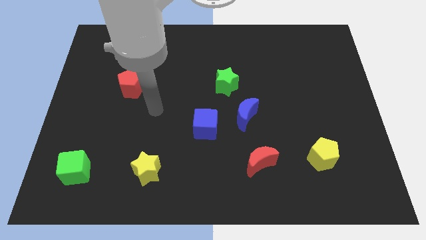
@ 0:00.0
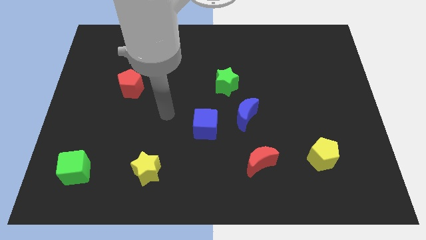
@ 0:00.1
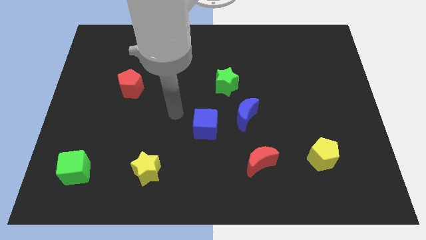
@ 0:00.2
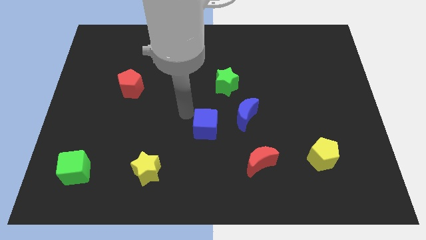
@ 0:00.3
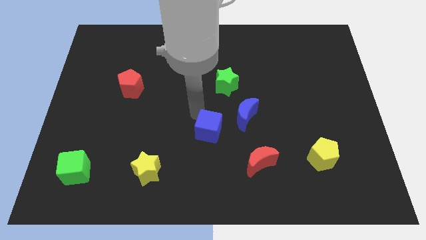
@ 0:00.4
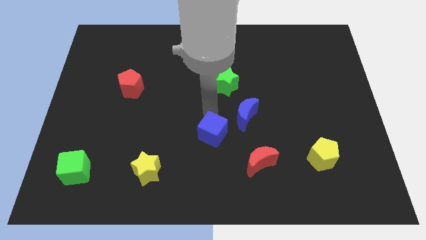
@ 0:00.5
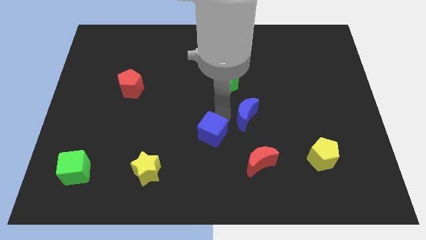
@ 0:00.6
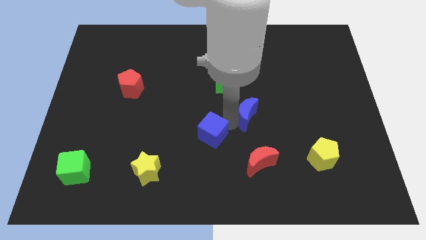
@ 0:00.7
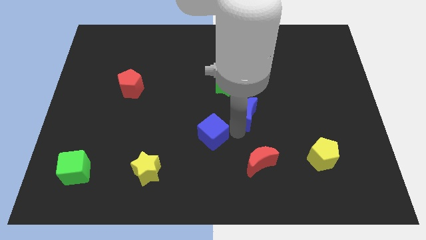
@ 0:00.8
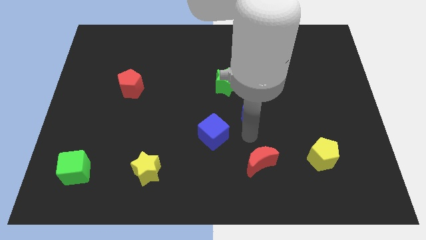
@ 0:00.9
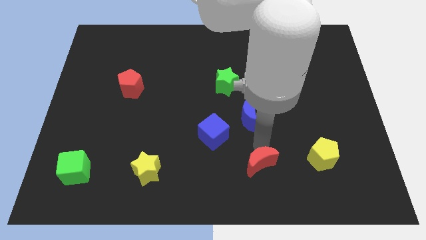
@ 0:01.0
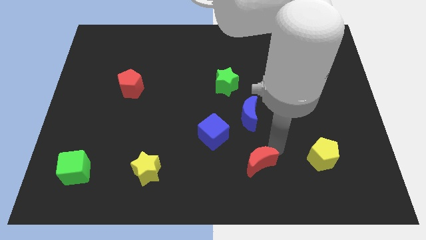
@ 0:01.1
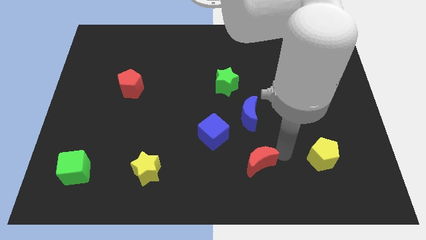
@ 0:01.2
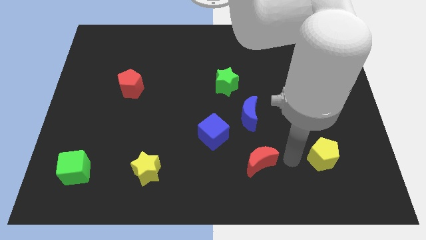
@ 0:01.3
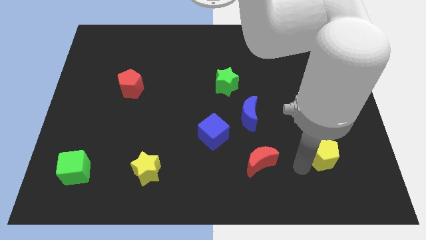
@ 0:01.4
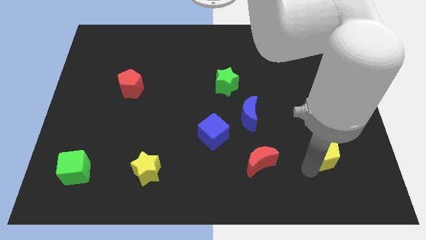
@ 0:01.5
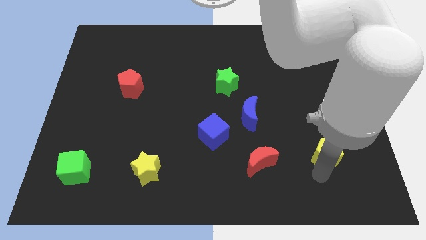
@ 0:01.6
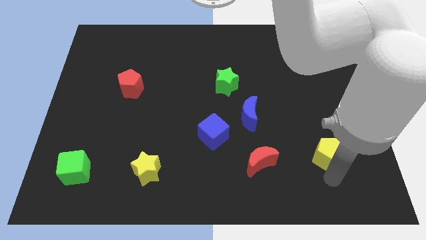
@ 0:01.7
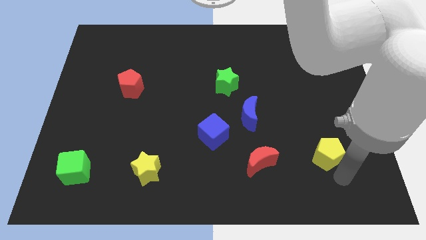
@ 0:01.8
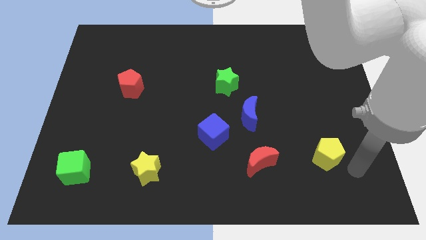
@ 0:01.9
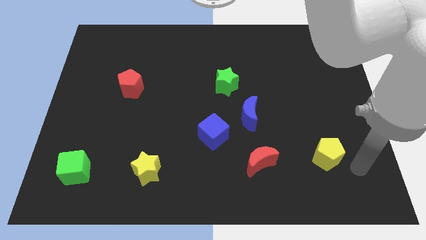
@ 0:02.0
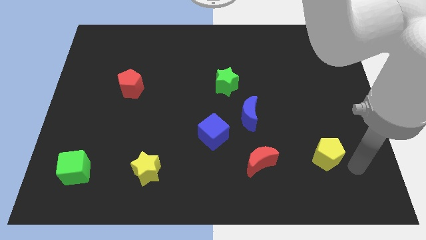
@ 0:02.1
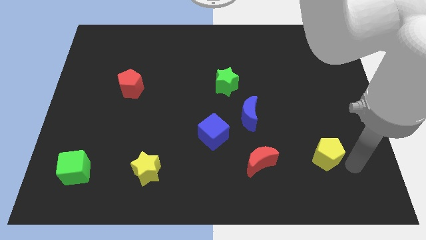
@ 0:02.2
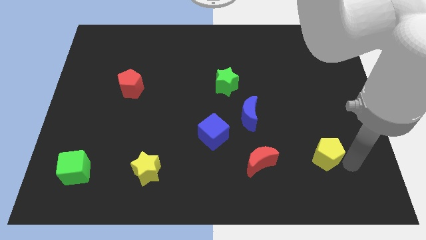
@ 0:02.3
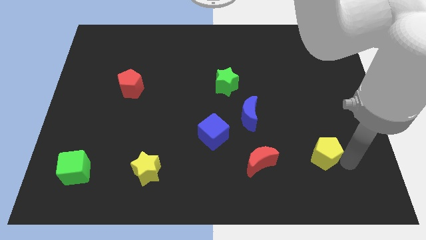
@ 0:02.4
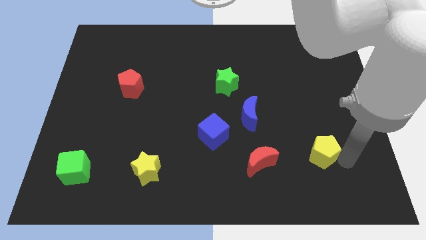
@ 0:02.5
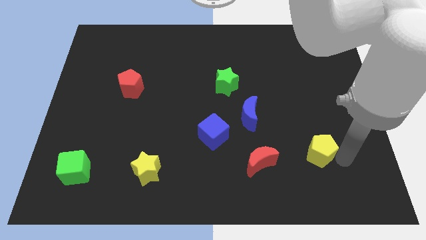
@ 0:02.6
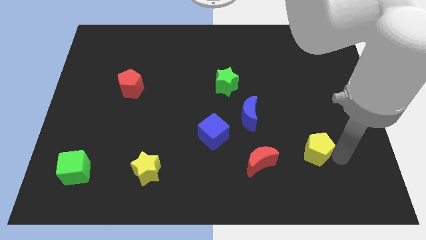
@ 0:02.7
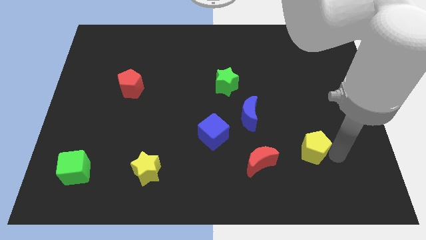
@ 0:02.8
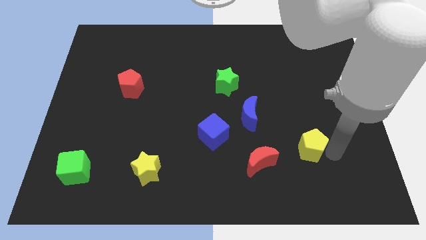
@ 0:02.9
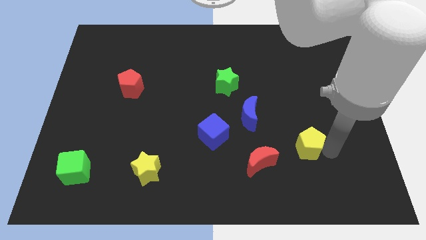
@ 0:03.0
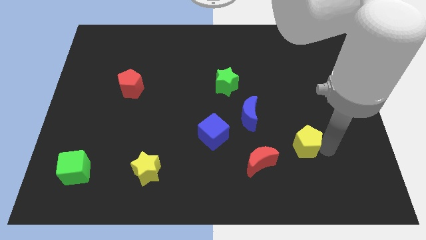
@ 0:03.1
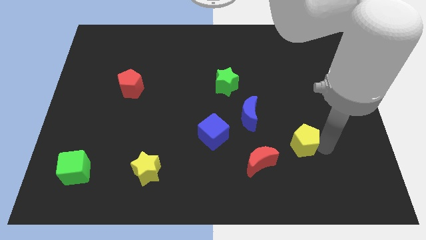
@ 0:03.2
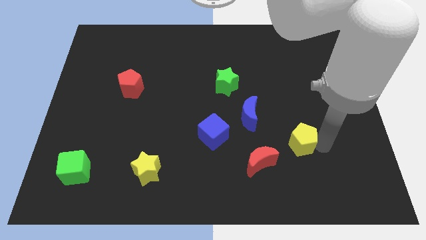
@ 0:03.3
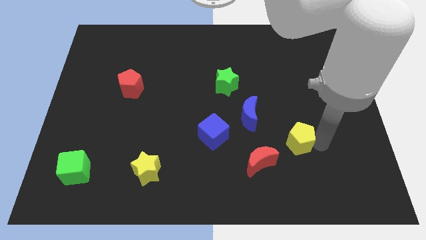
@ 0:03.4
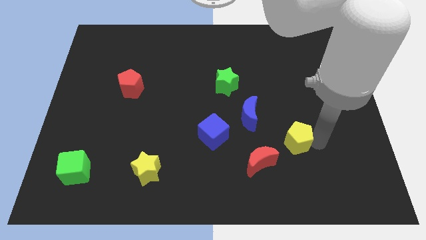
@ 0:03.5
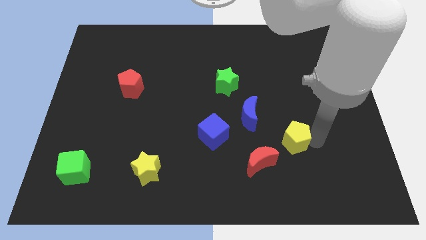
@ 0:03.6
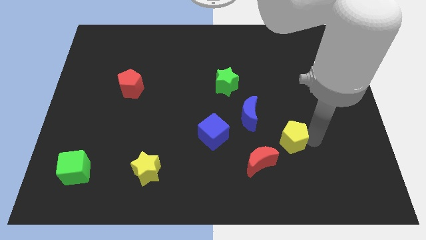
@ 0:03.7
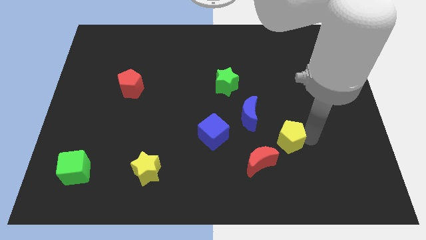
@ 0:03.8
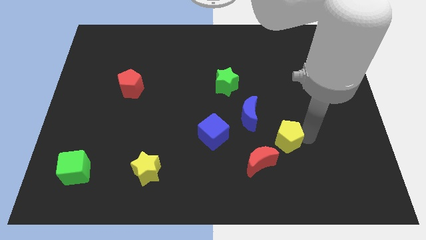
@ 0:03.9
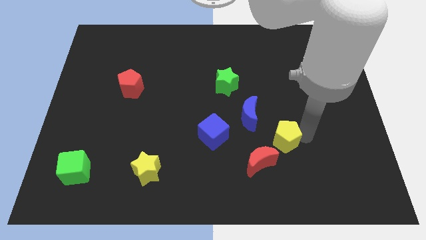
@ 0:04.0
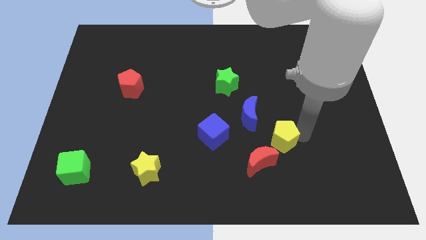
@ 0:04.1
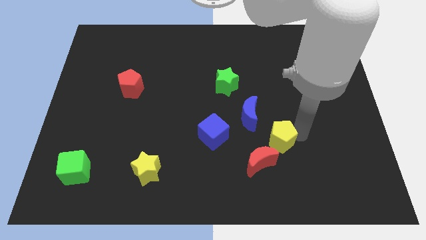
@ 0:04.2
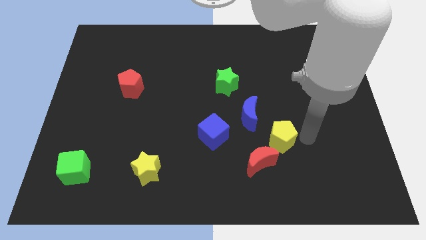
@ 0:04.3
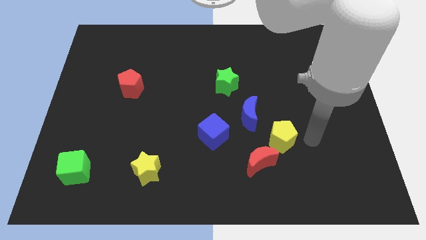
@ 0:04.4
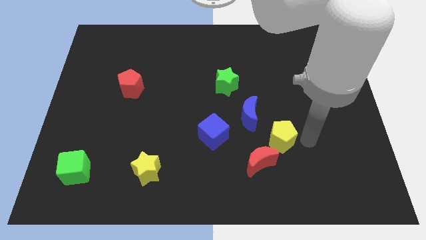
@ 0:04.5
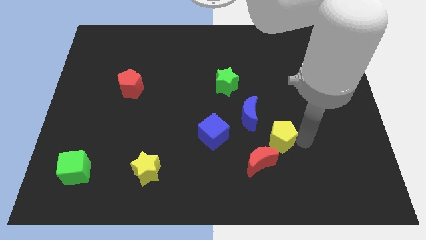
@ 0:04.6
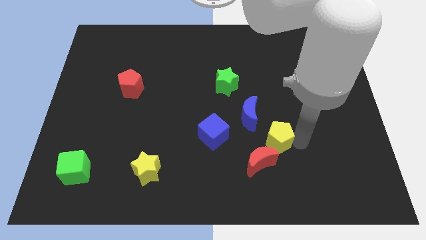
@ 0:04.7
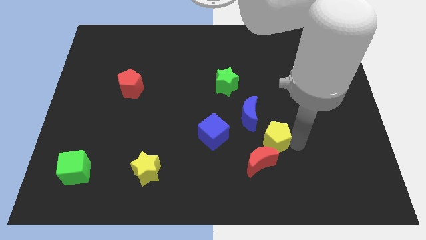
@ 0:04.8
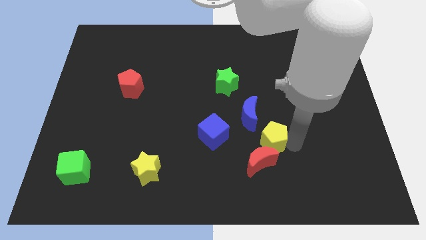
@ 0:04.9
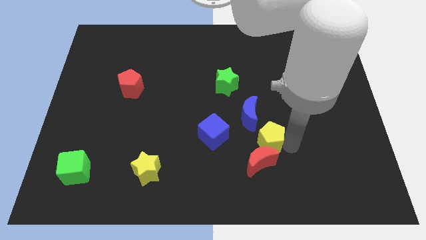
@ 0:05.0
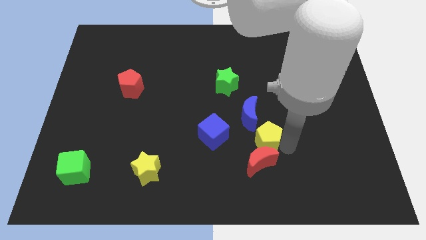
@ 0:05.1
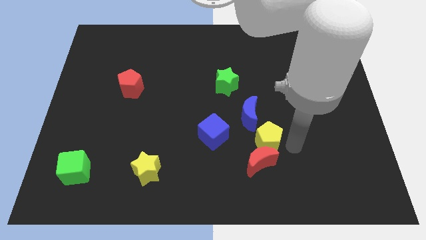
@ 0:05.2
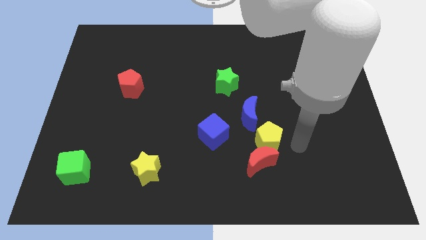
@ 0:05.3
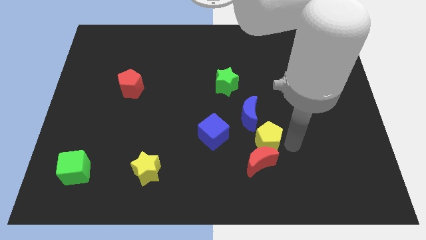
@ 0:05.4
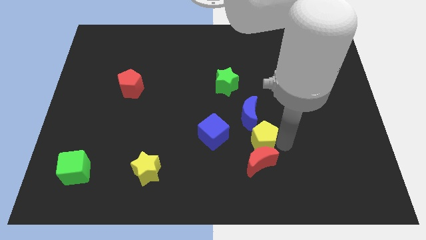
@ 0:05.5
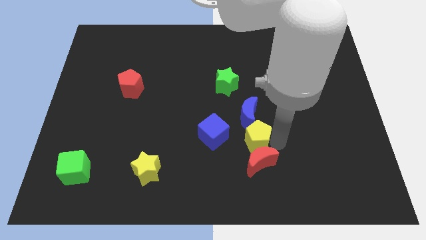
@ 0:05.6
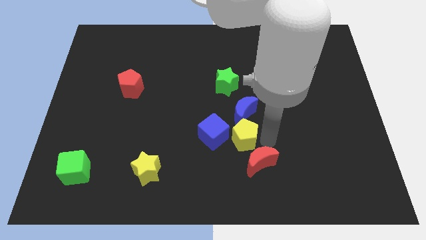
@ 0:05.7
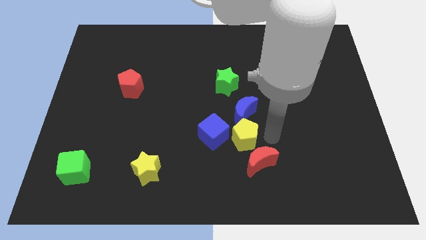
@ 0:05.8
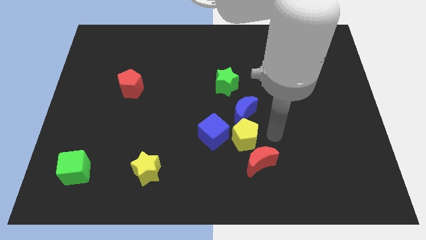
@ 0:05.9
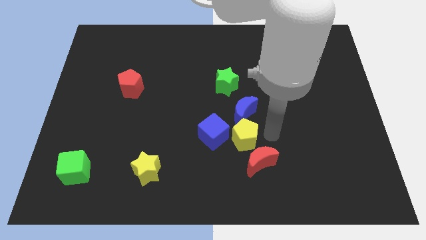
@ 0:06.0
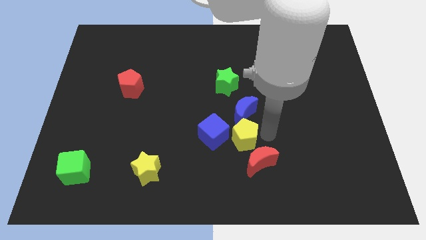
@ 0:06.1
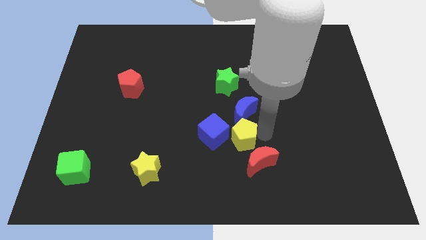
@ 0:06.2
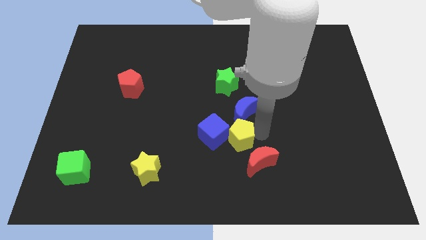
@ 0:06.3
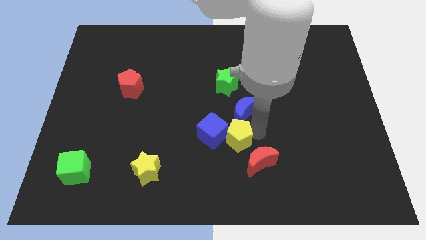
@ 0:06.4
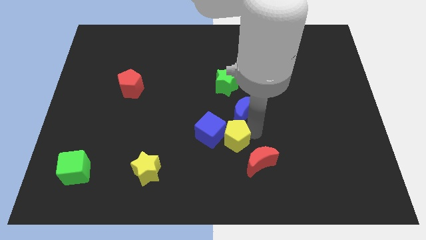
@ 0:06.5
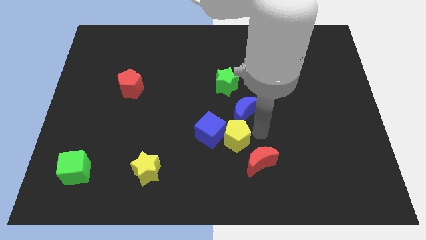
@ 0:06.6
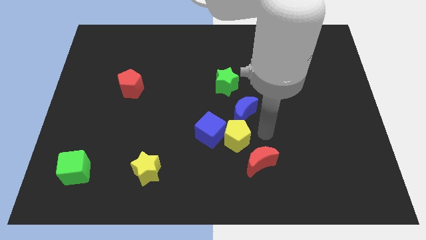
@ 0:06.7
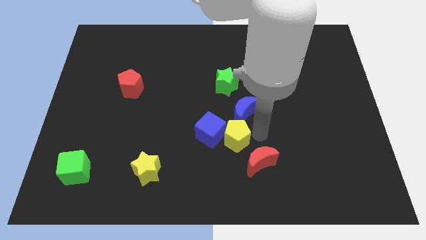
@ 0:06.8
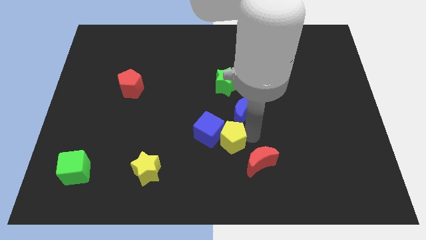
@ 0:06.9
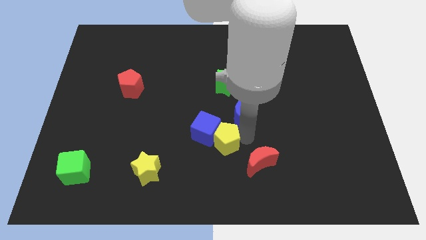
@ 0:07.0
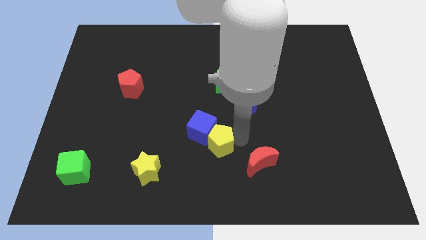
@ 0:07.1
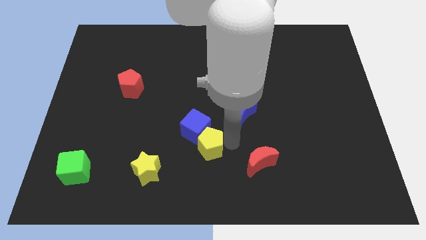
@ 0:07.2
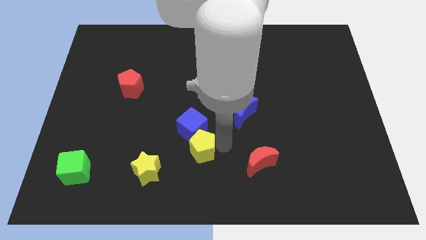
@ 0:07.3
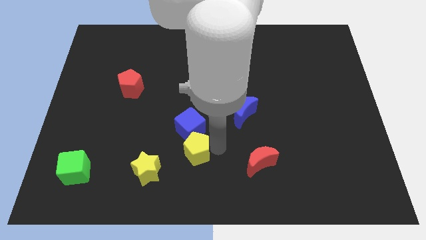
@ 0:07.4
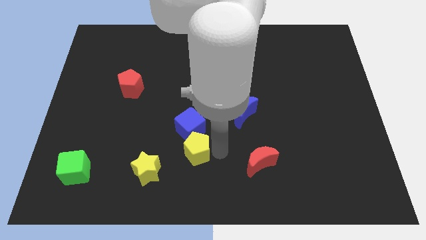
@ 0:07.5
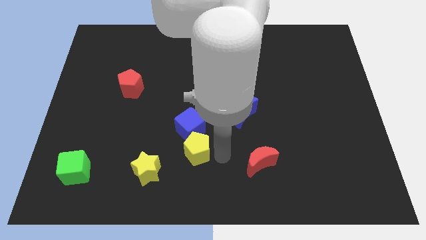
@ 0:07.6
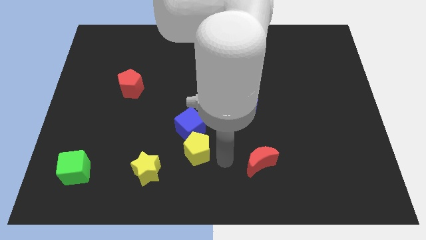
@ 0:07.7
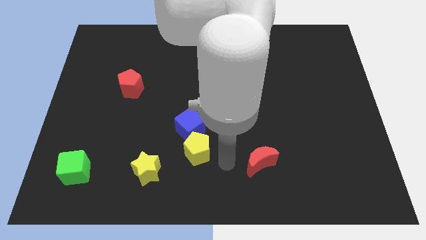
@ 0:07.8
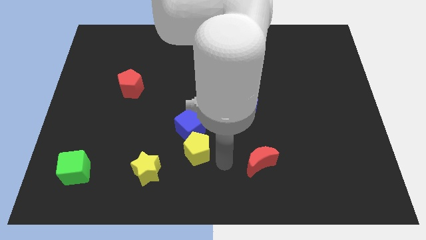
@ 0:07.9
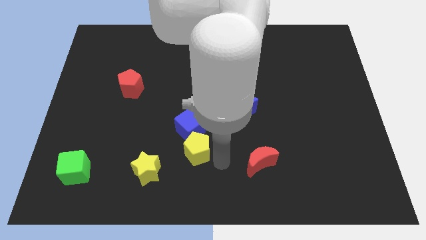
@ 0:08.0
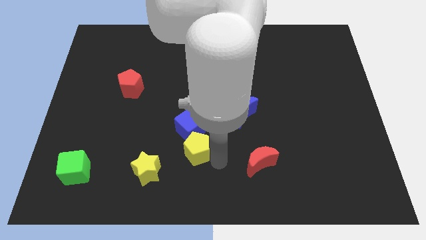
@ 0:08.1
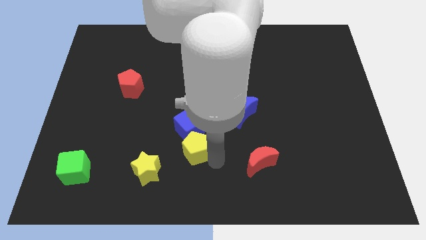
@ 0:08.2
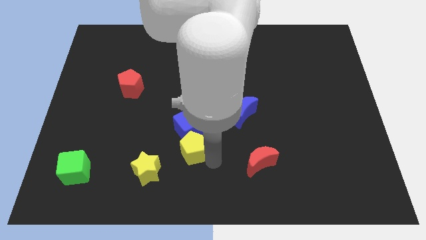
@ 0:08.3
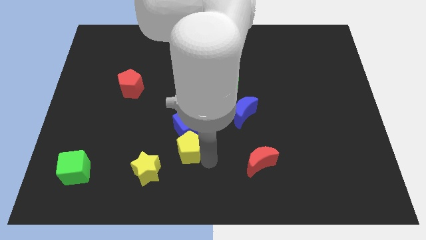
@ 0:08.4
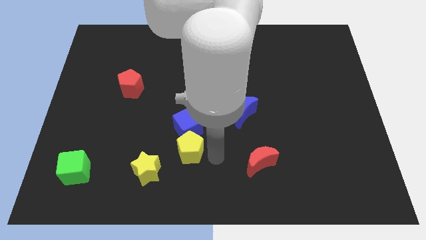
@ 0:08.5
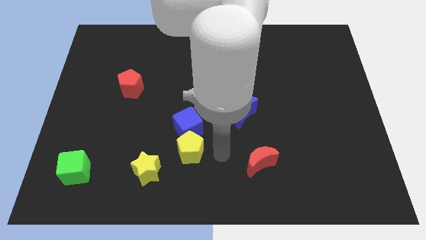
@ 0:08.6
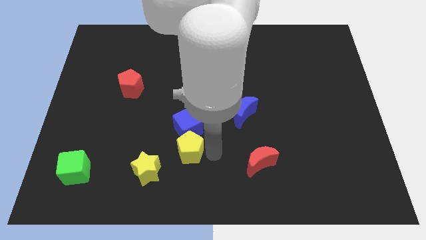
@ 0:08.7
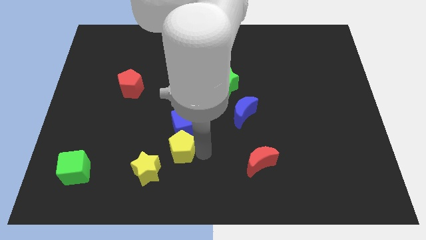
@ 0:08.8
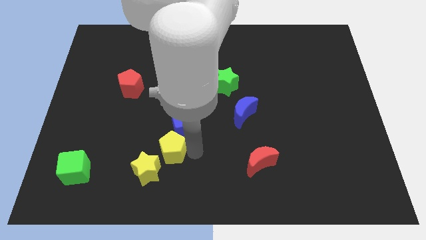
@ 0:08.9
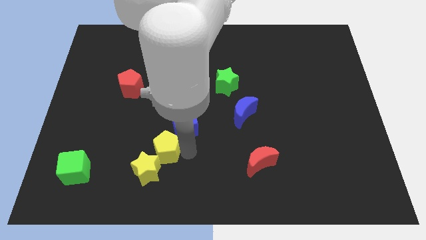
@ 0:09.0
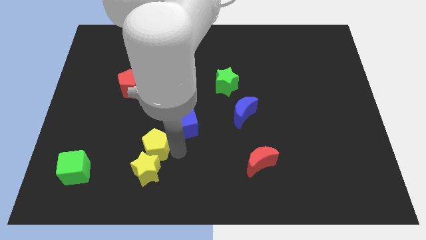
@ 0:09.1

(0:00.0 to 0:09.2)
slide the yellow pentagon to the top left of the yellow star
